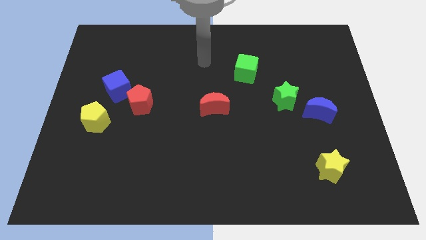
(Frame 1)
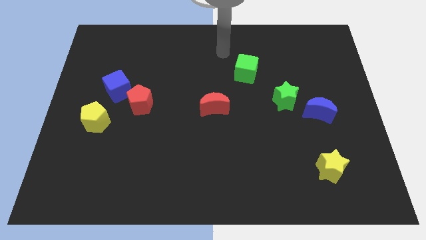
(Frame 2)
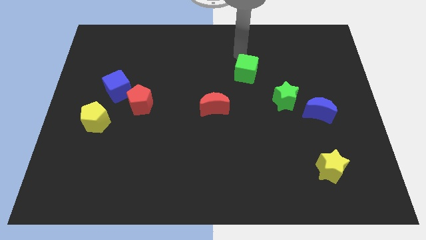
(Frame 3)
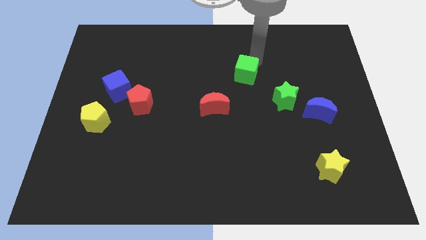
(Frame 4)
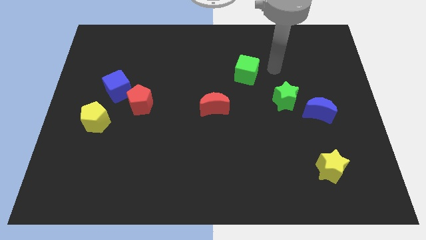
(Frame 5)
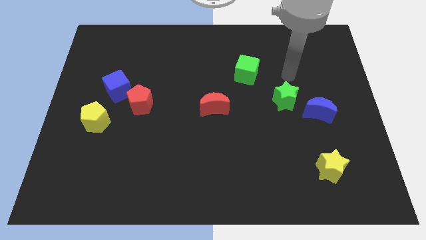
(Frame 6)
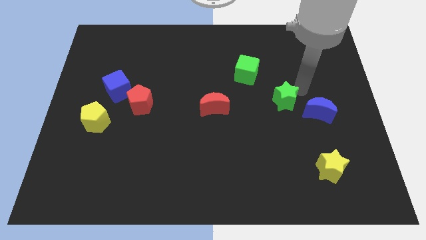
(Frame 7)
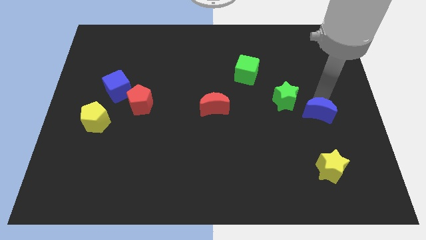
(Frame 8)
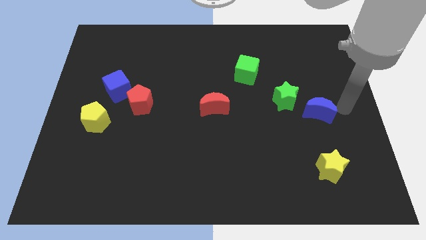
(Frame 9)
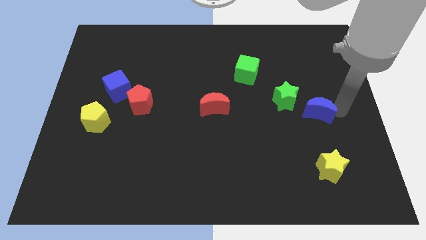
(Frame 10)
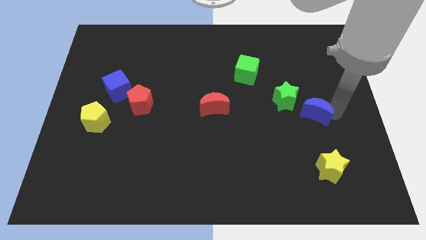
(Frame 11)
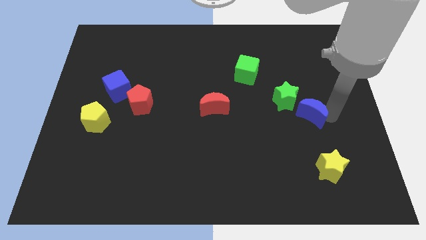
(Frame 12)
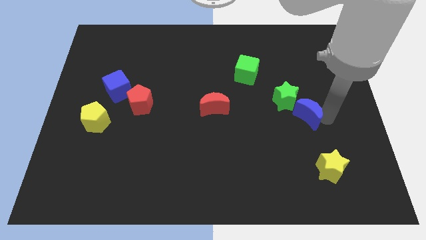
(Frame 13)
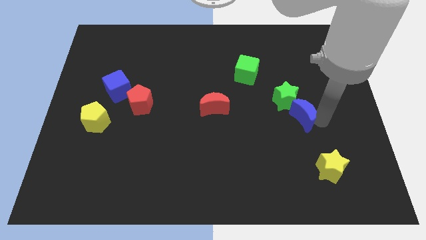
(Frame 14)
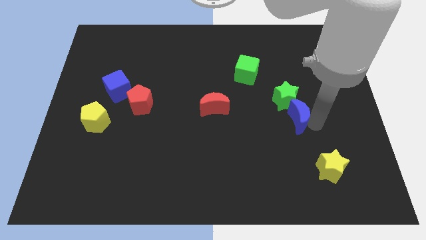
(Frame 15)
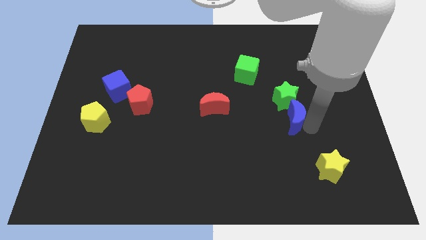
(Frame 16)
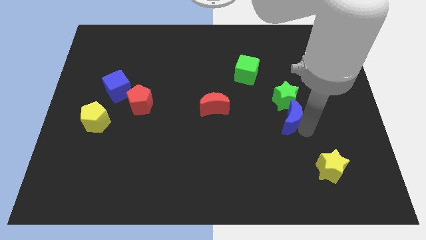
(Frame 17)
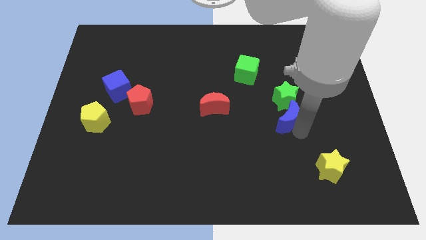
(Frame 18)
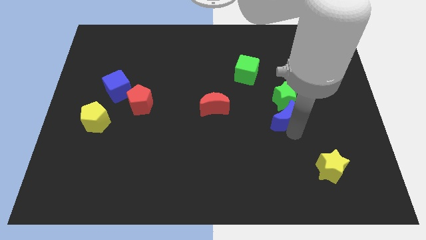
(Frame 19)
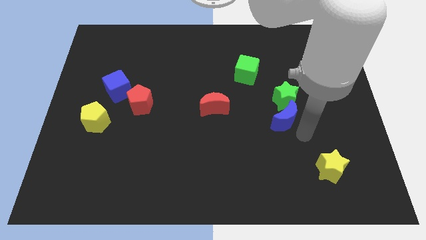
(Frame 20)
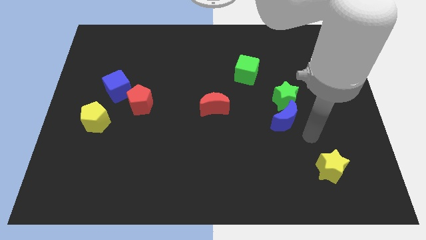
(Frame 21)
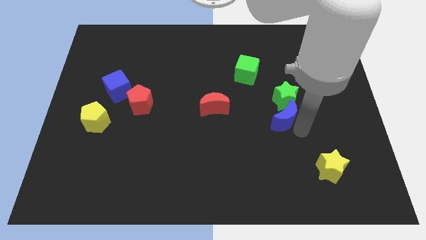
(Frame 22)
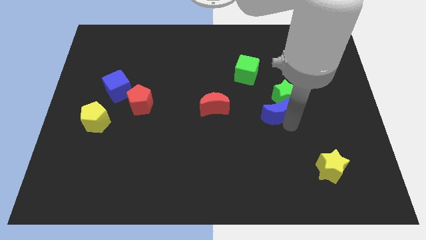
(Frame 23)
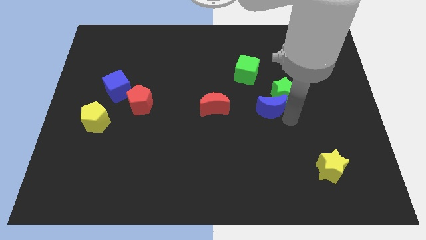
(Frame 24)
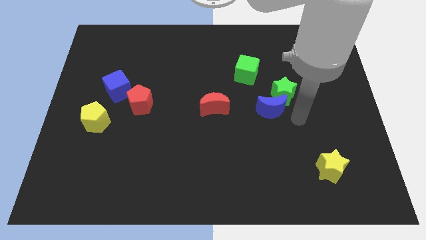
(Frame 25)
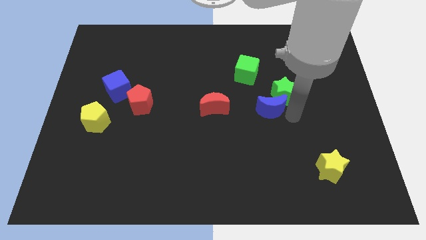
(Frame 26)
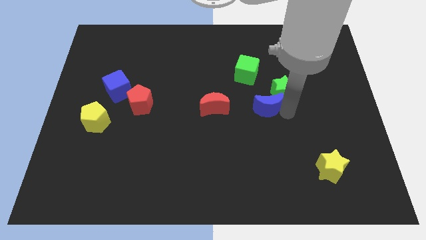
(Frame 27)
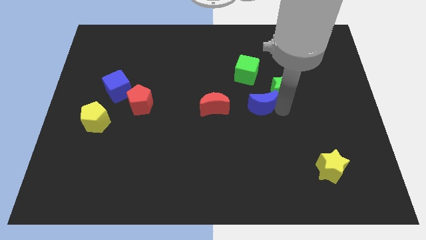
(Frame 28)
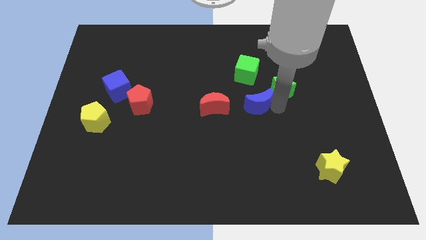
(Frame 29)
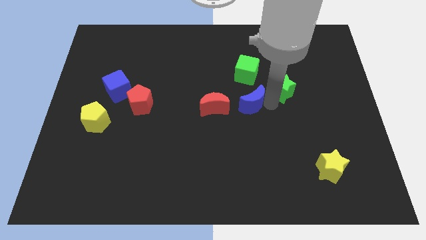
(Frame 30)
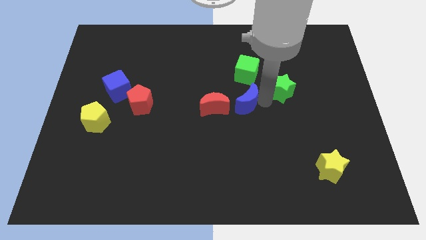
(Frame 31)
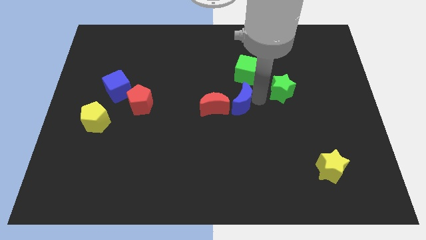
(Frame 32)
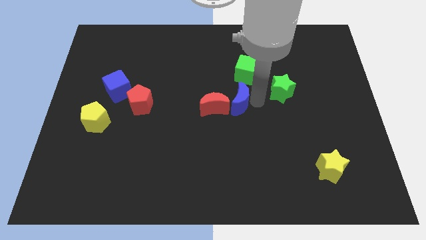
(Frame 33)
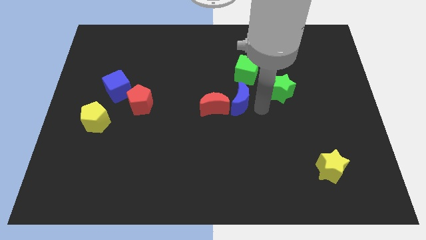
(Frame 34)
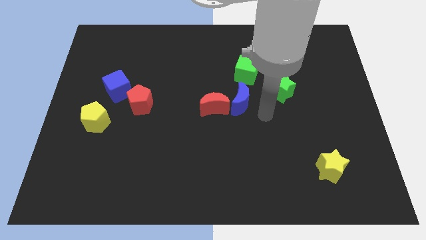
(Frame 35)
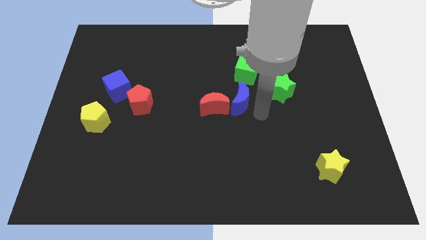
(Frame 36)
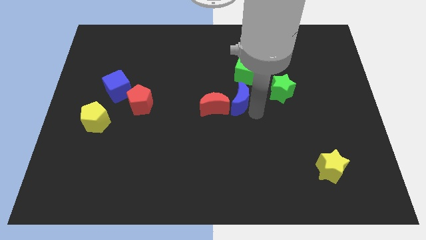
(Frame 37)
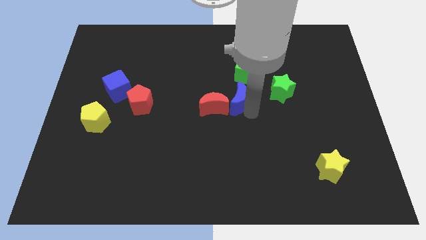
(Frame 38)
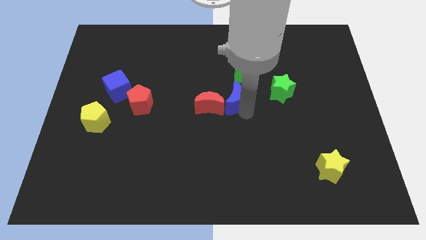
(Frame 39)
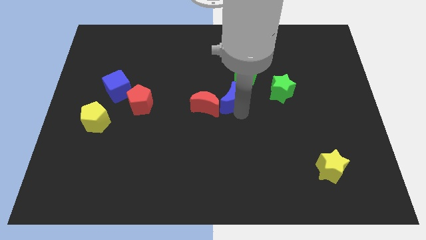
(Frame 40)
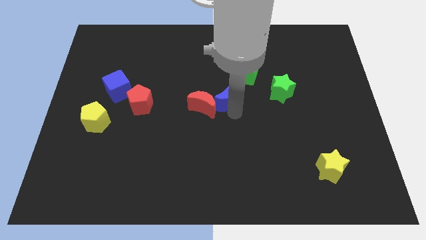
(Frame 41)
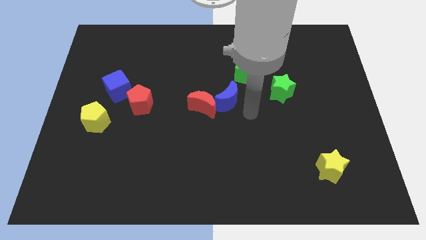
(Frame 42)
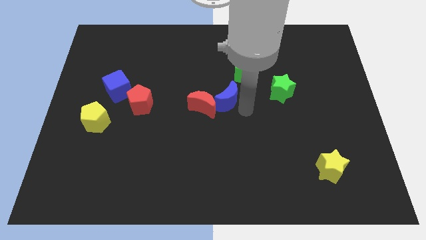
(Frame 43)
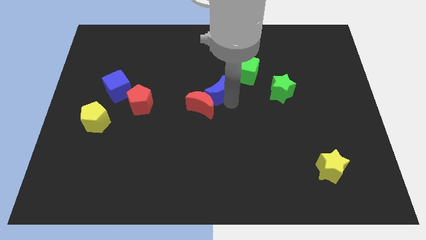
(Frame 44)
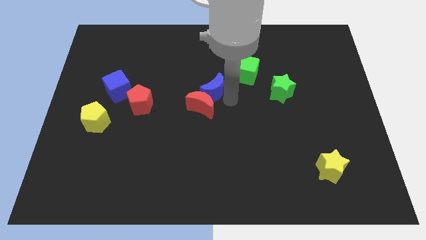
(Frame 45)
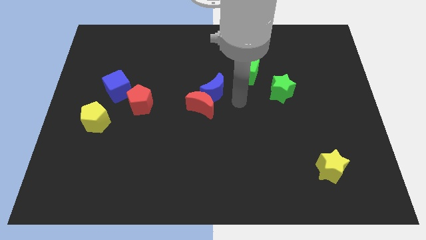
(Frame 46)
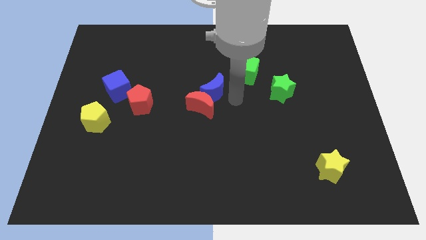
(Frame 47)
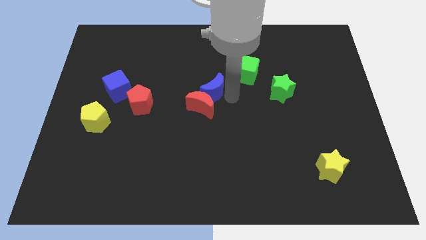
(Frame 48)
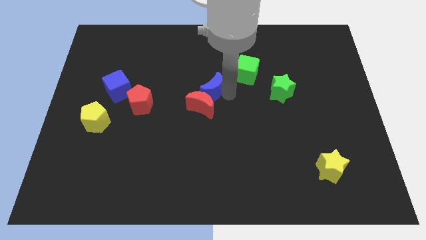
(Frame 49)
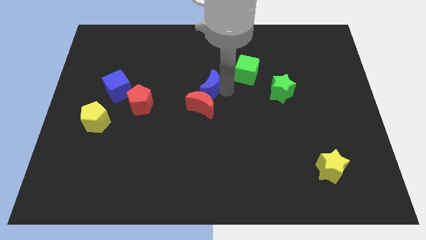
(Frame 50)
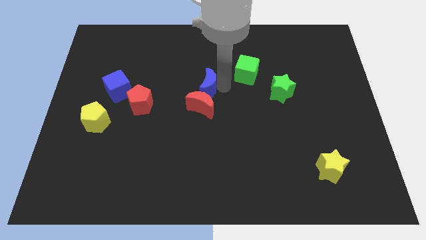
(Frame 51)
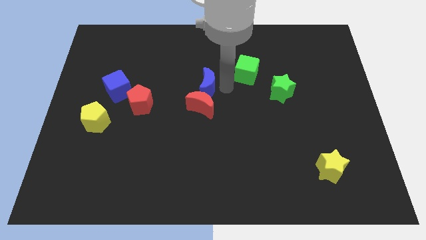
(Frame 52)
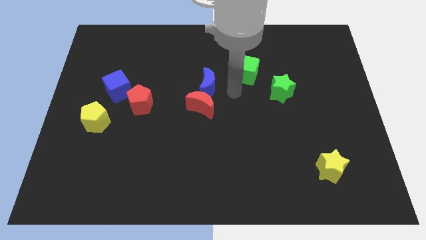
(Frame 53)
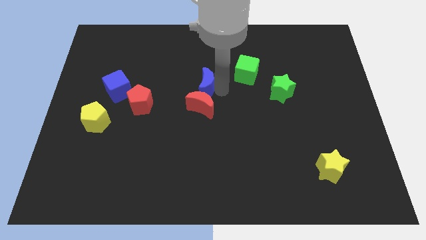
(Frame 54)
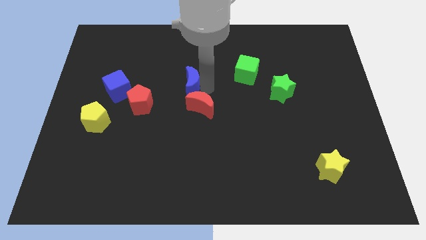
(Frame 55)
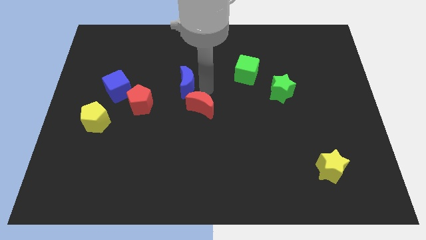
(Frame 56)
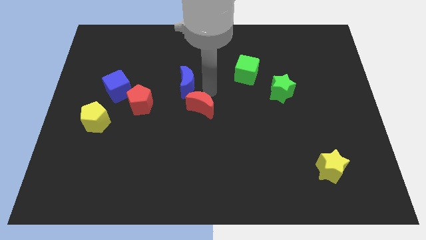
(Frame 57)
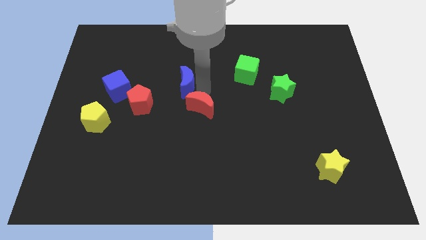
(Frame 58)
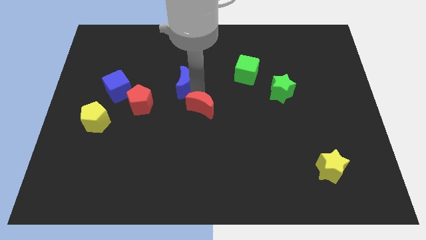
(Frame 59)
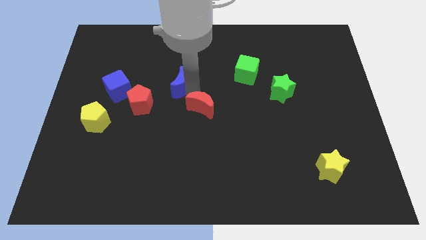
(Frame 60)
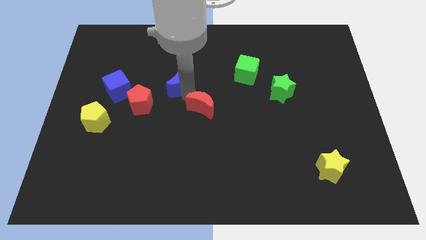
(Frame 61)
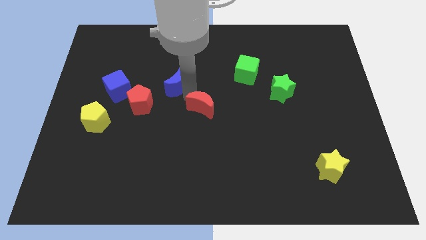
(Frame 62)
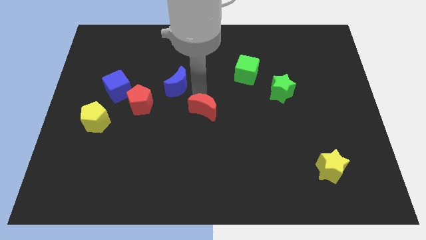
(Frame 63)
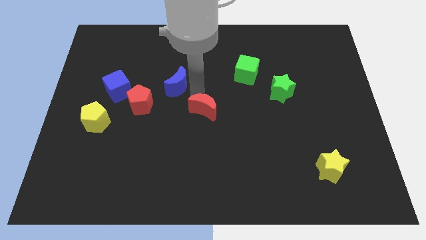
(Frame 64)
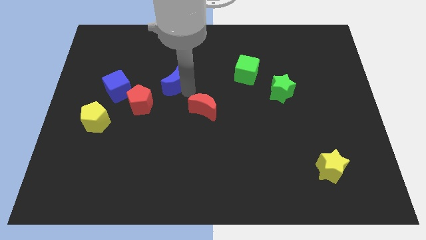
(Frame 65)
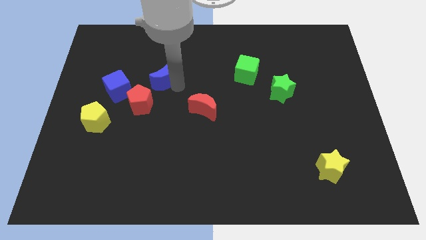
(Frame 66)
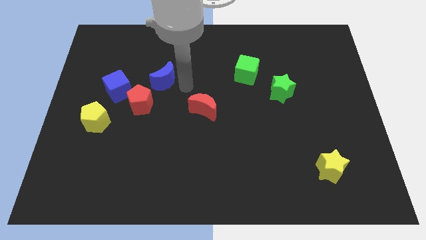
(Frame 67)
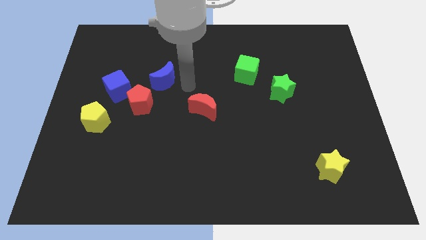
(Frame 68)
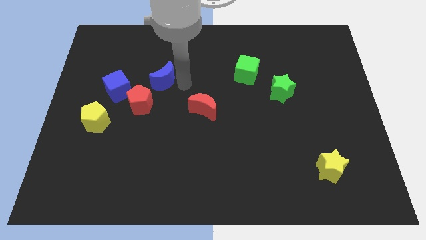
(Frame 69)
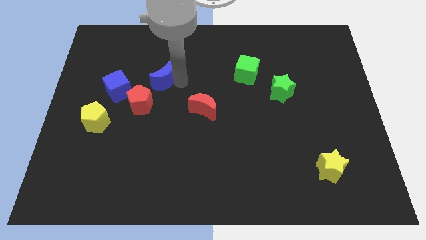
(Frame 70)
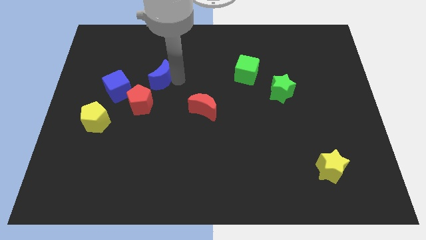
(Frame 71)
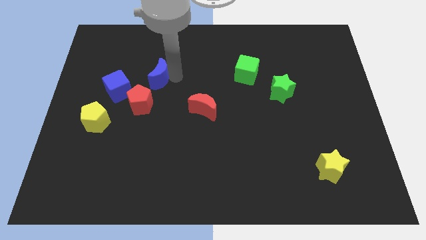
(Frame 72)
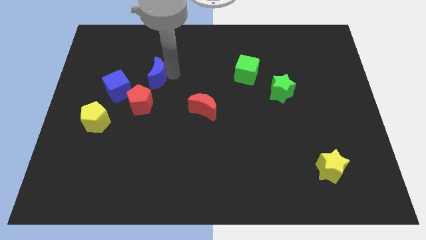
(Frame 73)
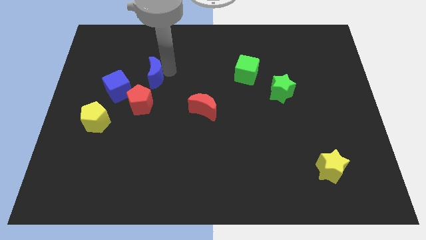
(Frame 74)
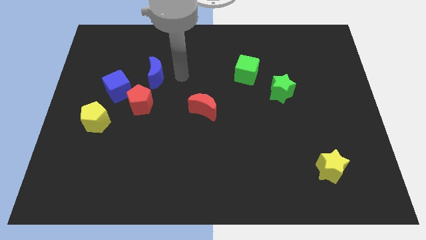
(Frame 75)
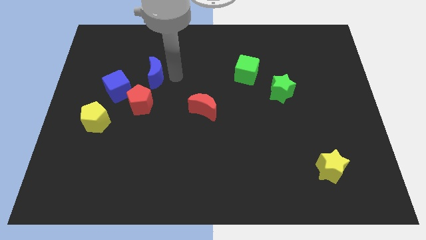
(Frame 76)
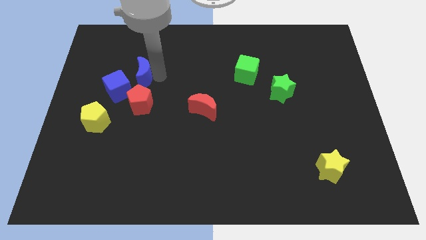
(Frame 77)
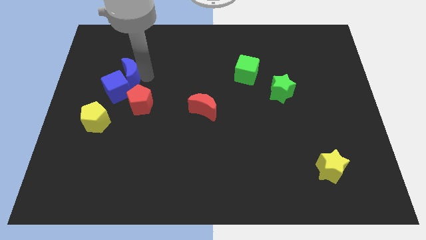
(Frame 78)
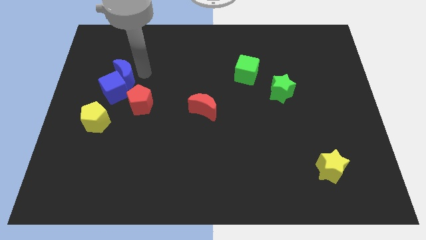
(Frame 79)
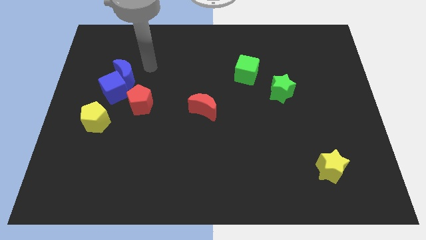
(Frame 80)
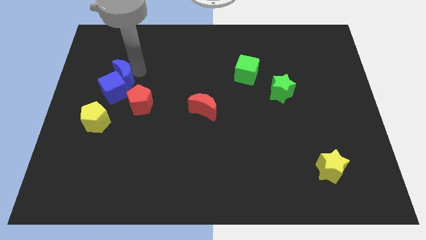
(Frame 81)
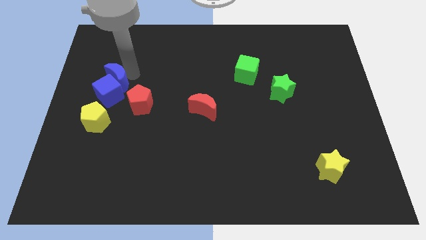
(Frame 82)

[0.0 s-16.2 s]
slide the blue moon to the top side of the yellow pentagon
